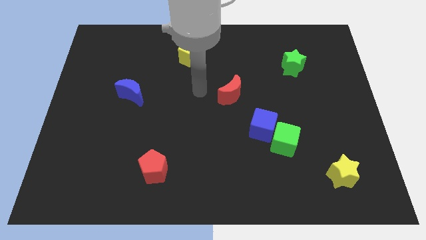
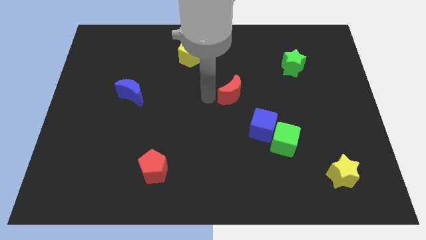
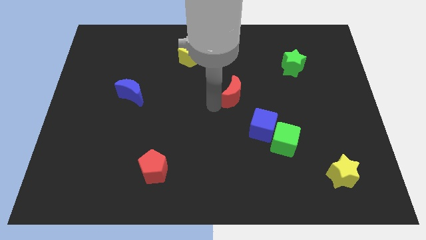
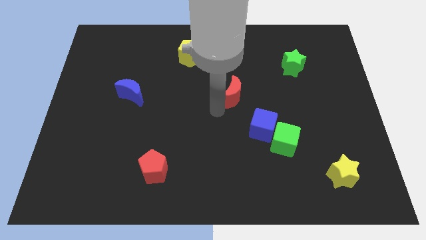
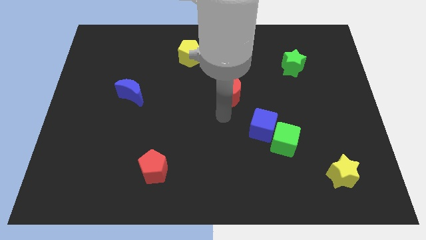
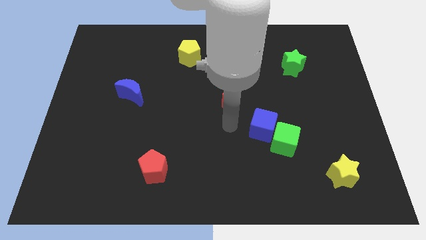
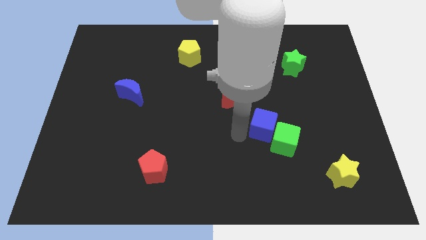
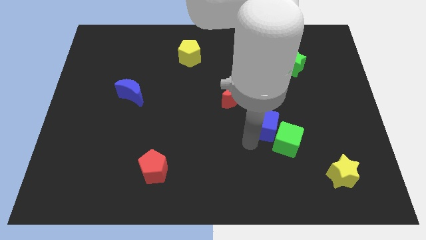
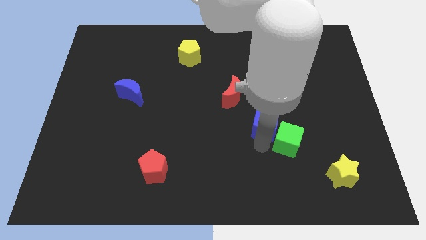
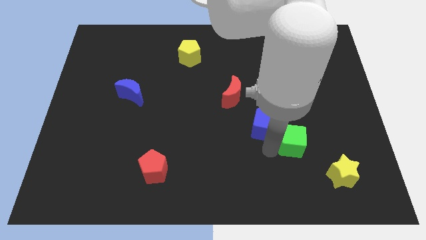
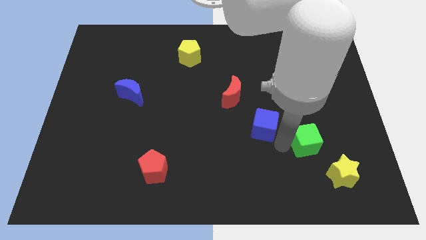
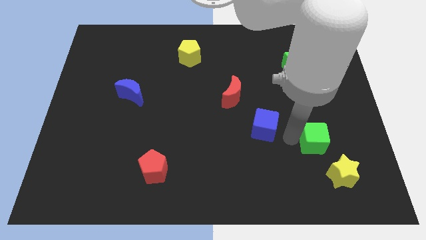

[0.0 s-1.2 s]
separate the blue cube from the green cube

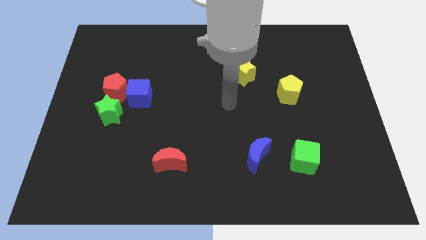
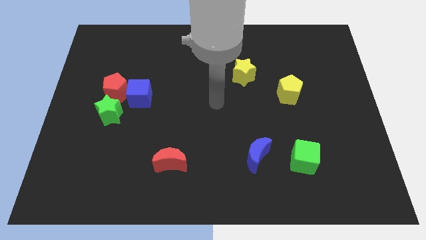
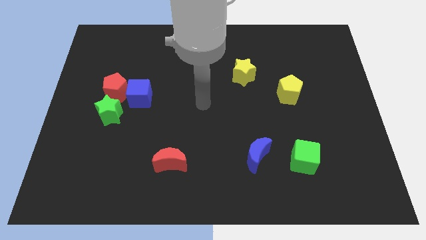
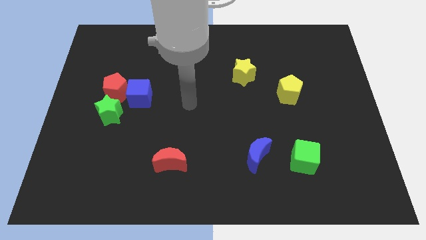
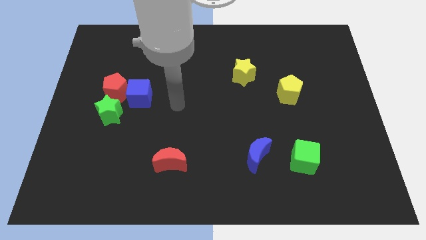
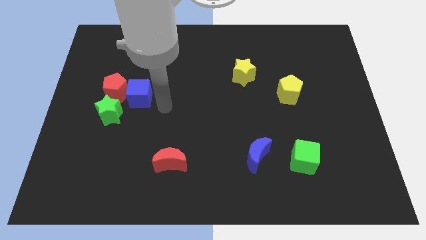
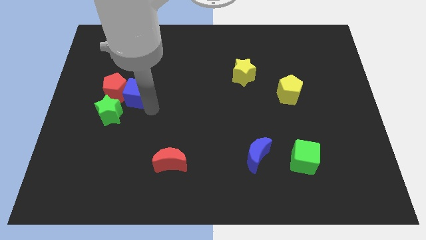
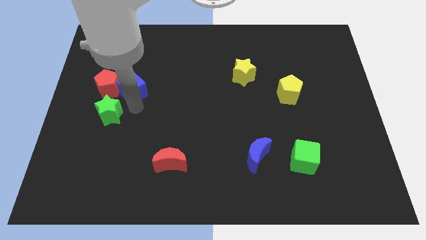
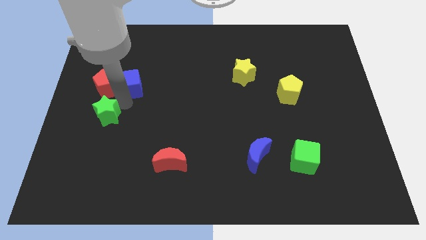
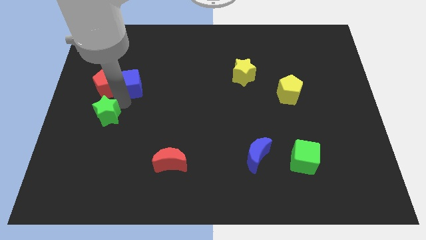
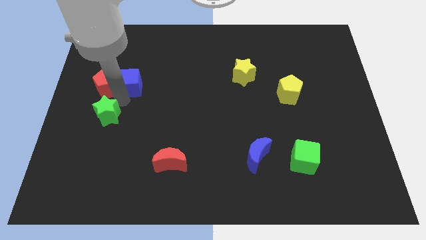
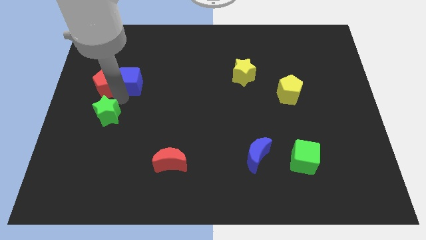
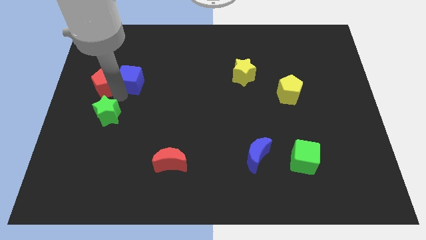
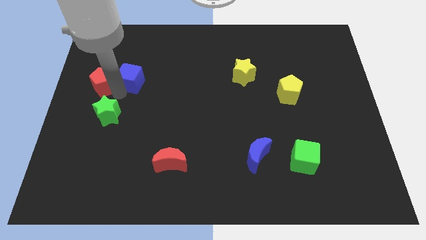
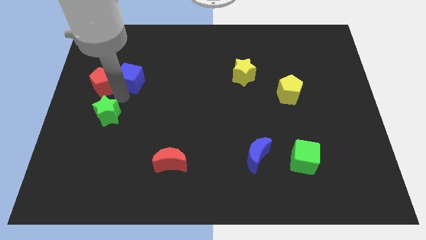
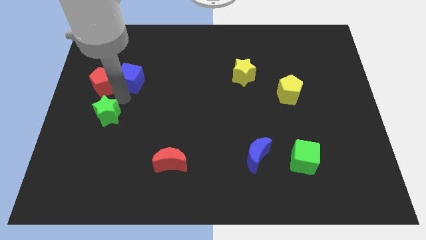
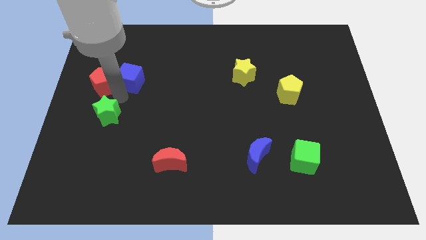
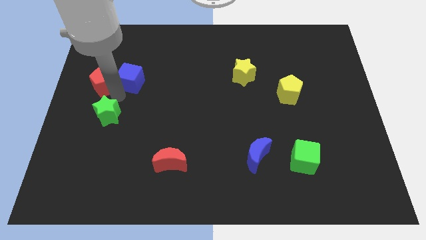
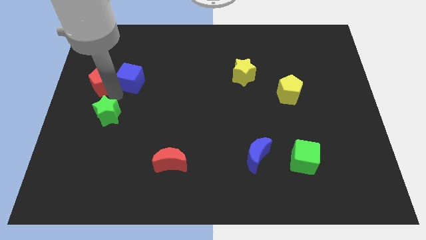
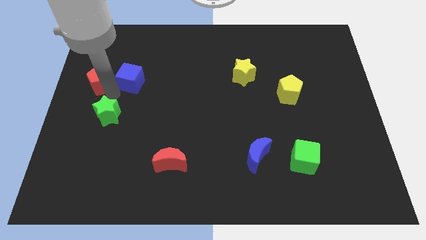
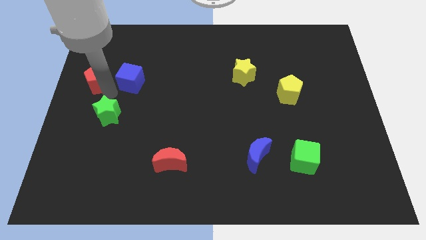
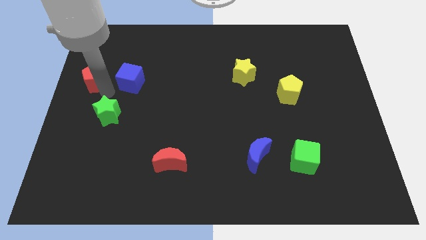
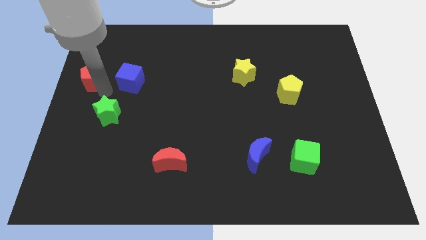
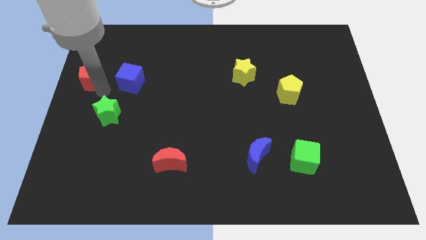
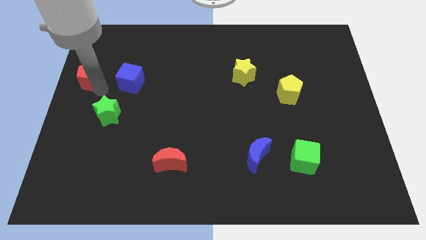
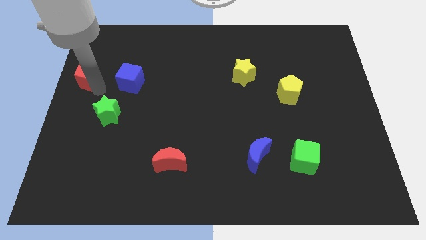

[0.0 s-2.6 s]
pull the red pentagon apart from the blue cube and green star

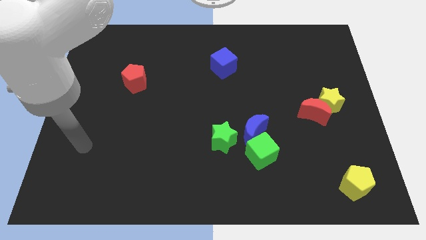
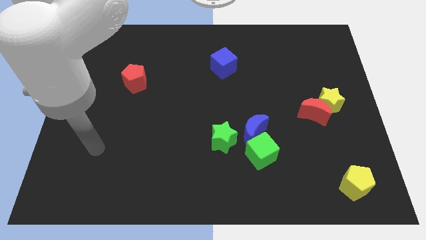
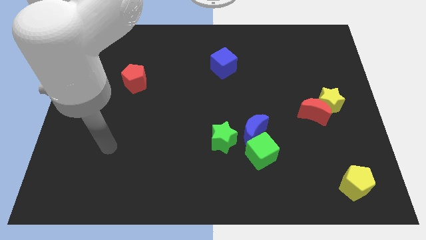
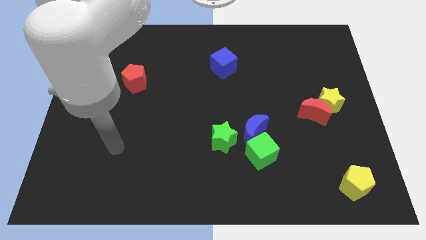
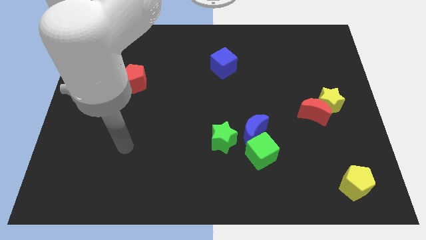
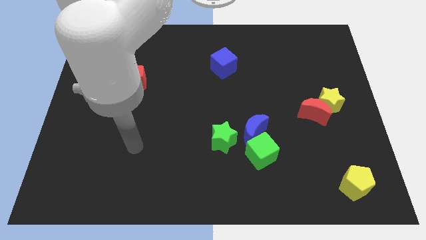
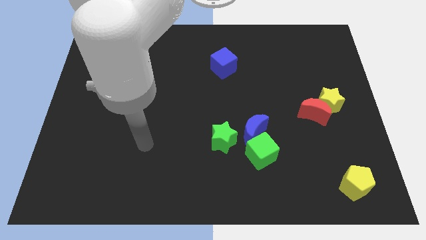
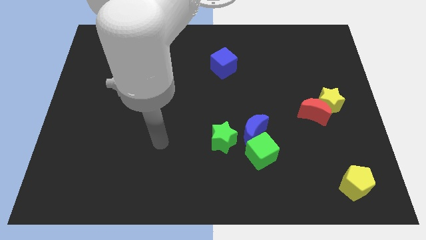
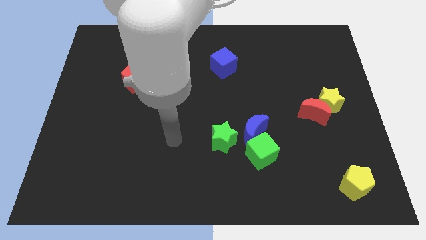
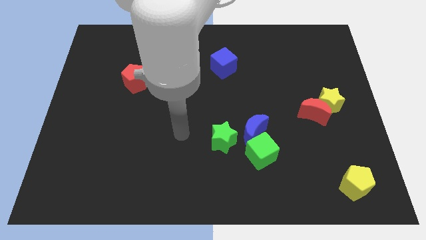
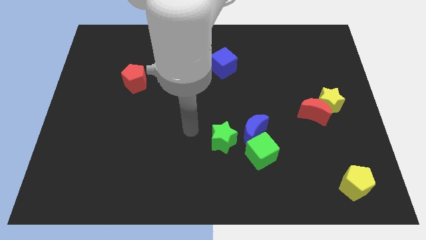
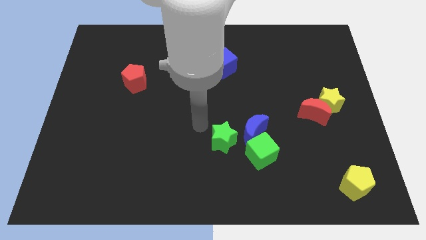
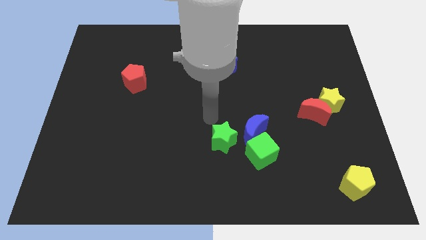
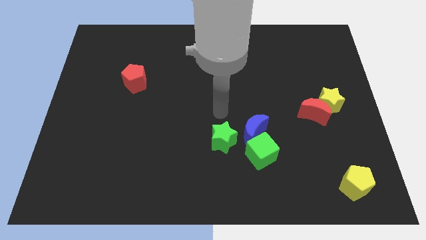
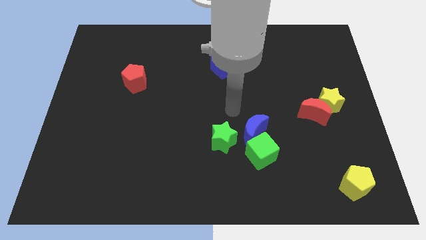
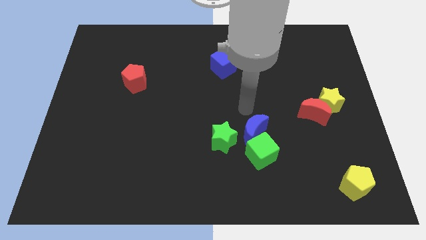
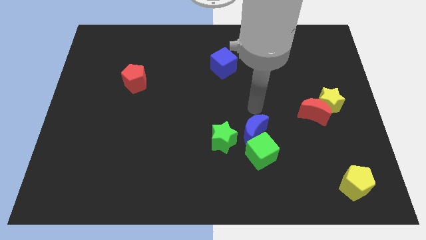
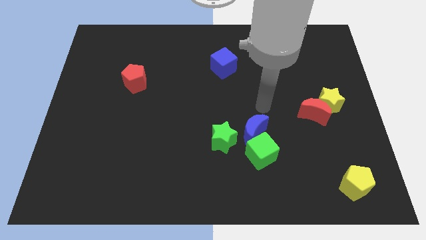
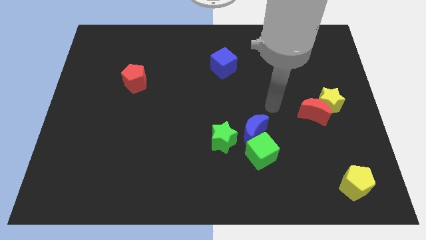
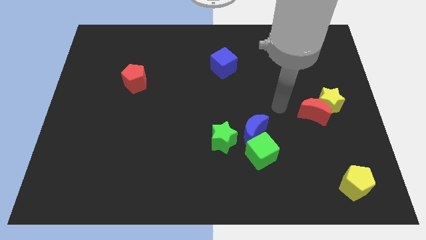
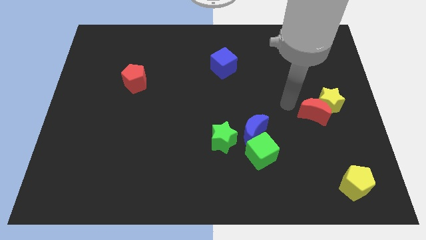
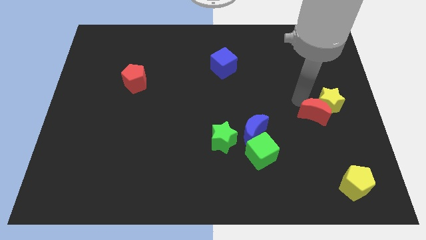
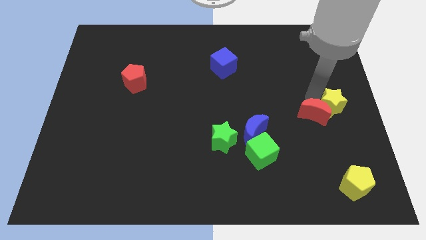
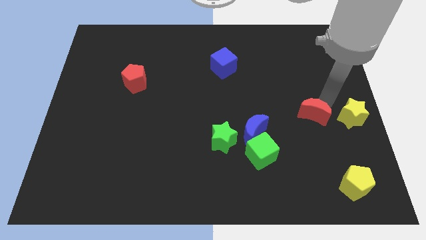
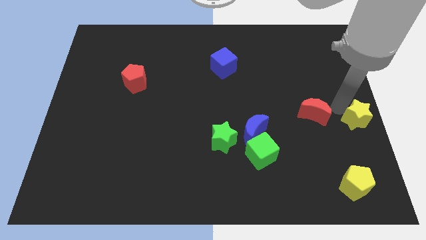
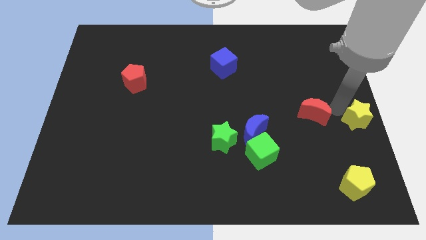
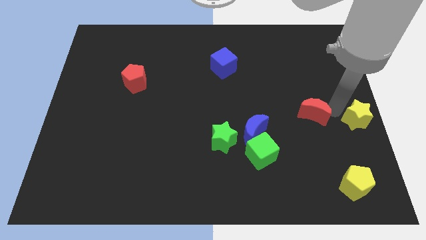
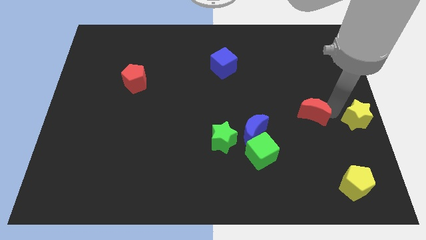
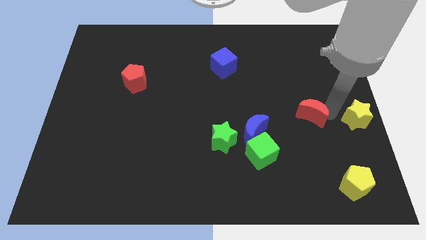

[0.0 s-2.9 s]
pull the red moon apart from the yellow star

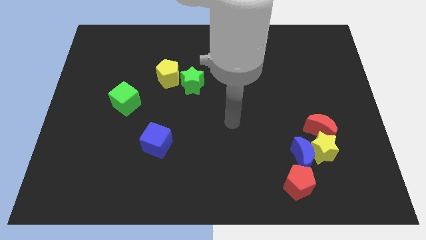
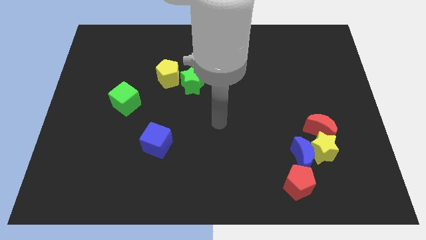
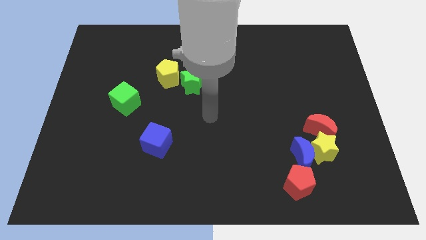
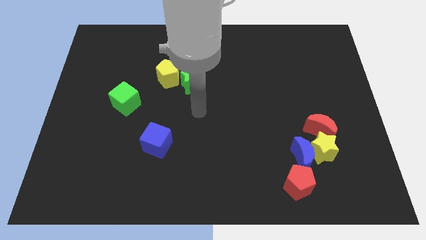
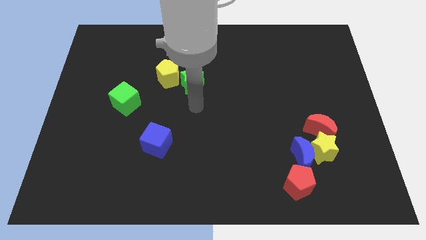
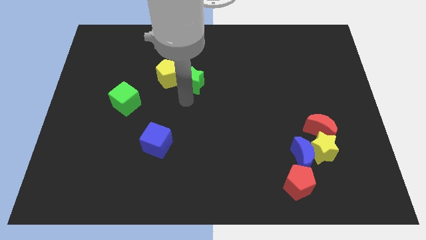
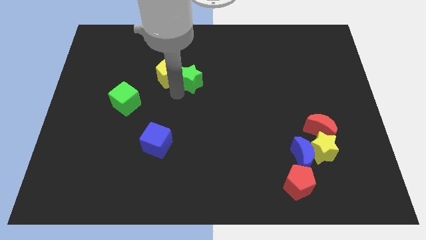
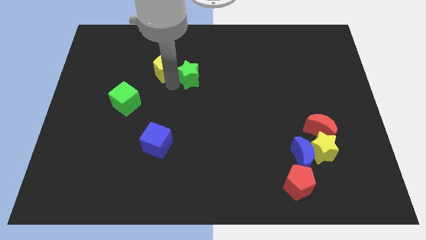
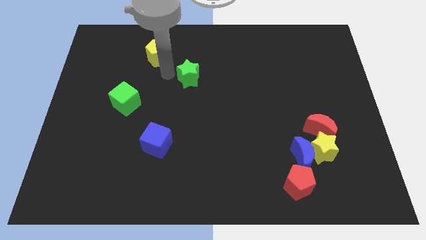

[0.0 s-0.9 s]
separate the green star from the yellow pentagon

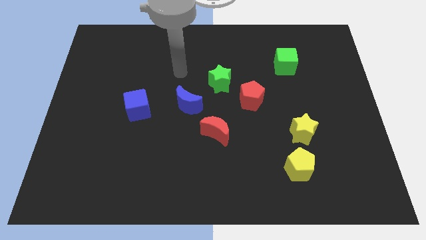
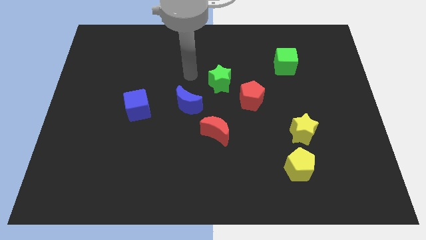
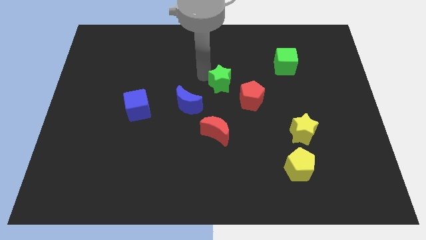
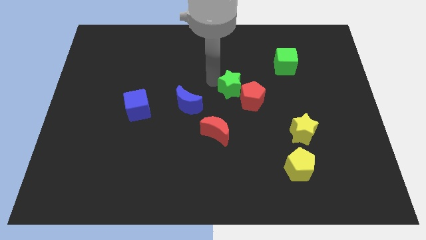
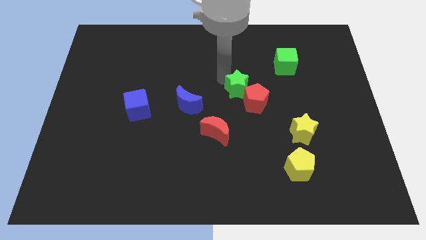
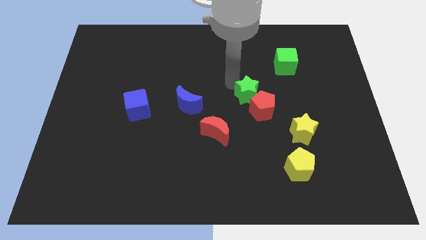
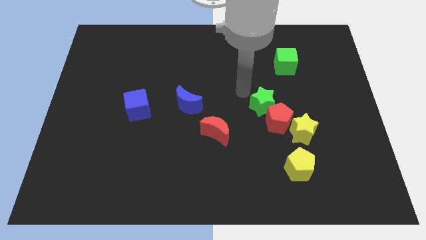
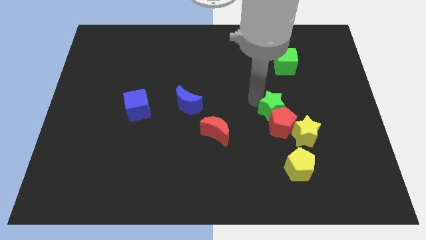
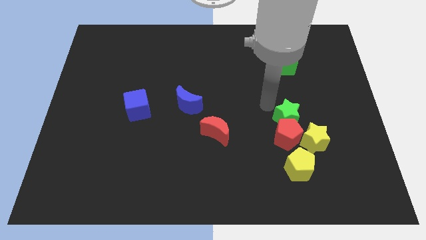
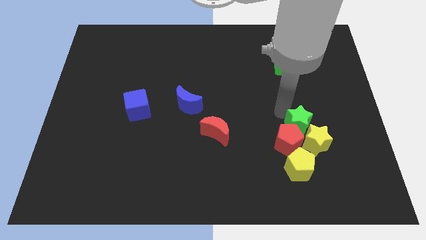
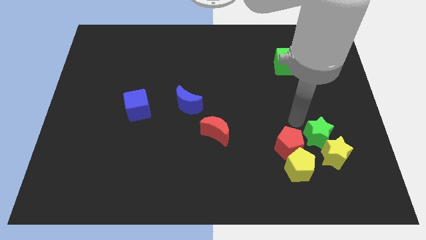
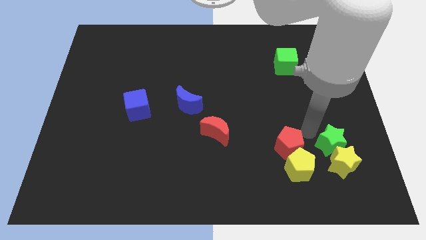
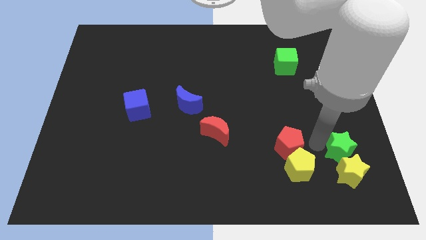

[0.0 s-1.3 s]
pull the red pentagon apart from the green star

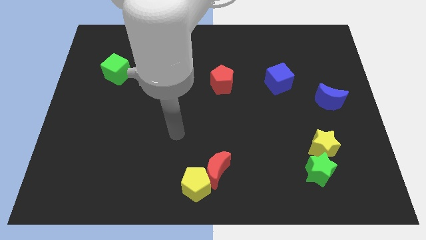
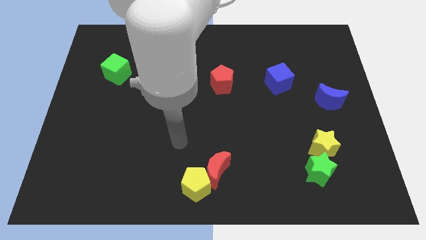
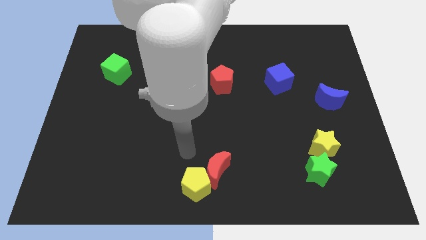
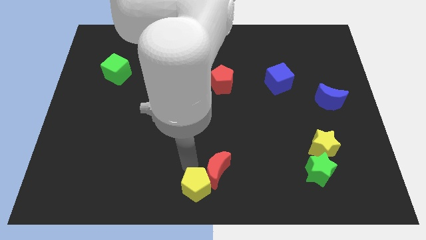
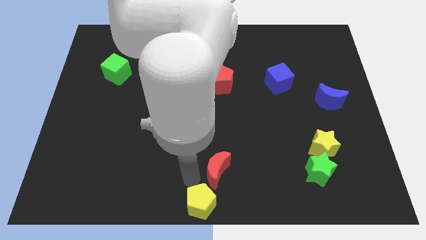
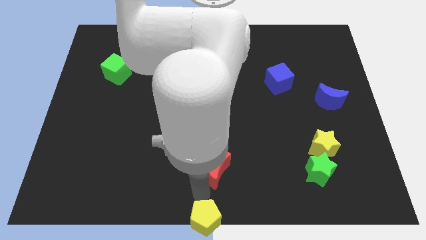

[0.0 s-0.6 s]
move the red moon away from the yellow pentagon
